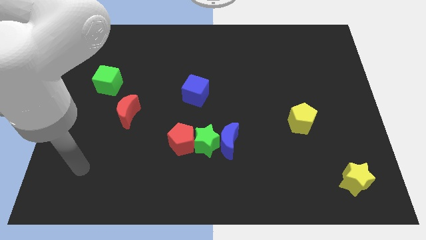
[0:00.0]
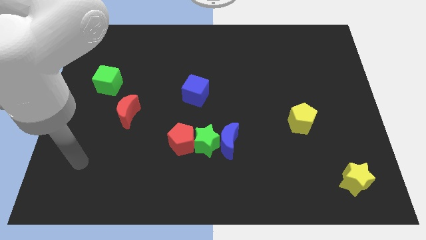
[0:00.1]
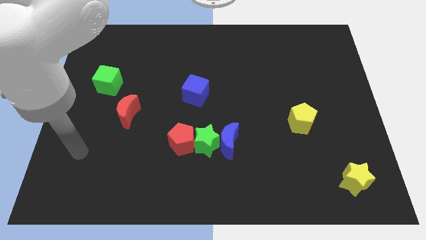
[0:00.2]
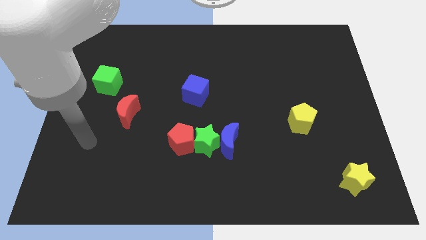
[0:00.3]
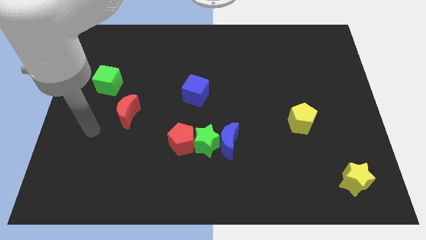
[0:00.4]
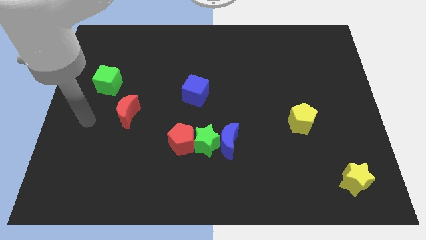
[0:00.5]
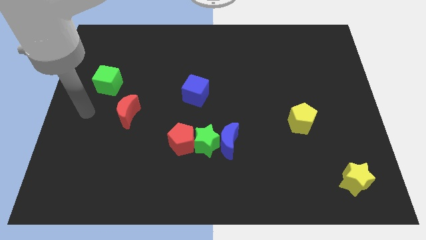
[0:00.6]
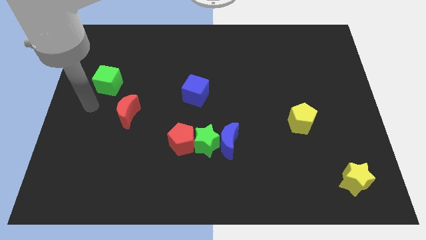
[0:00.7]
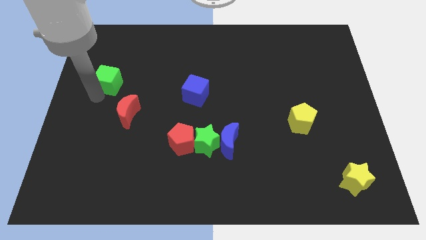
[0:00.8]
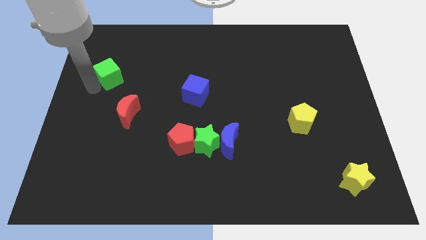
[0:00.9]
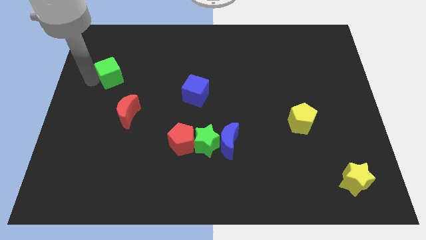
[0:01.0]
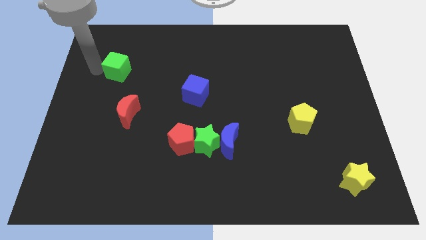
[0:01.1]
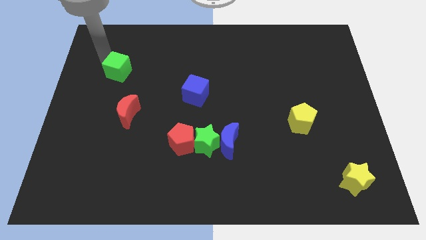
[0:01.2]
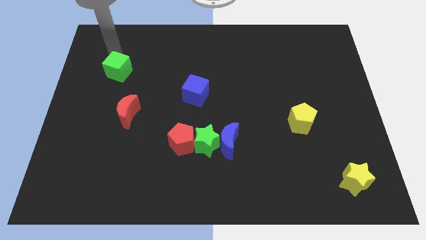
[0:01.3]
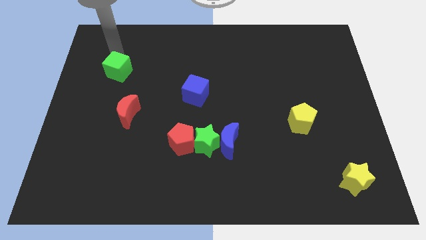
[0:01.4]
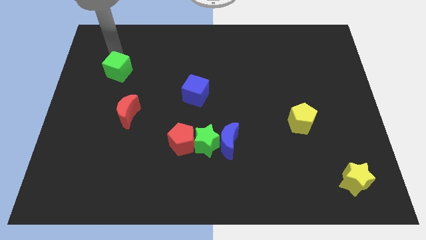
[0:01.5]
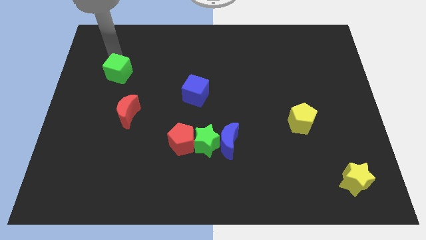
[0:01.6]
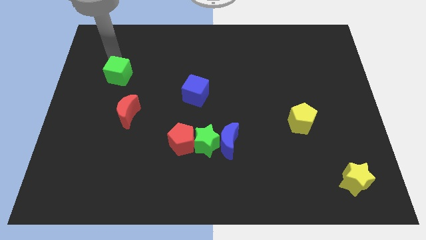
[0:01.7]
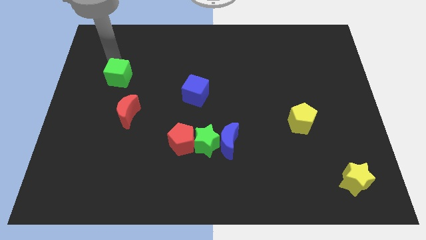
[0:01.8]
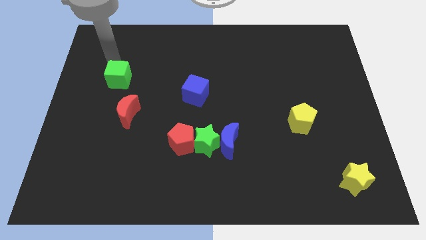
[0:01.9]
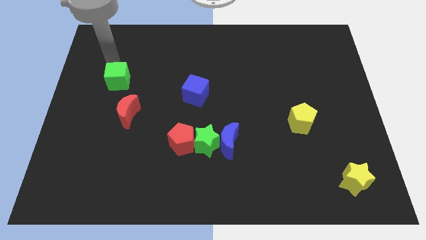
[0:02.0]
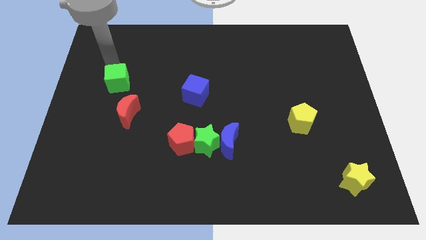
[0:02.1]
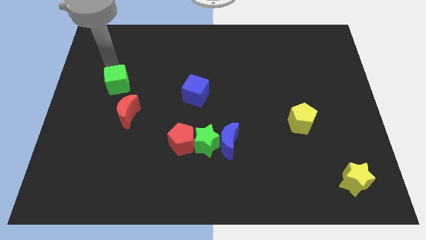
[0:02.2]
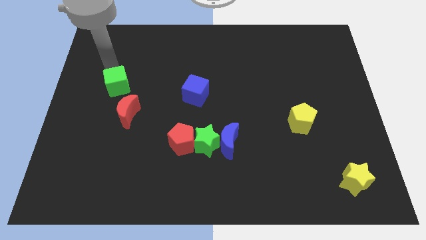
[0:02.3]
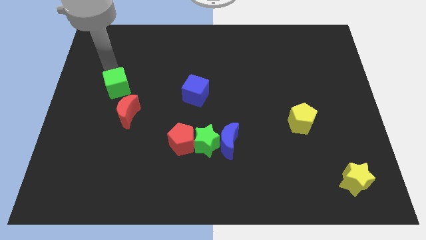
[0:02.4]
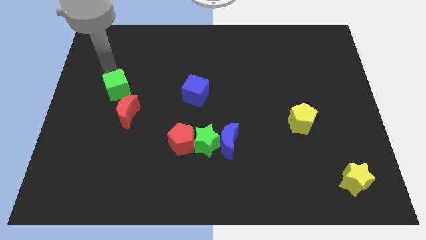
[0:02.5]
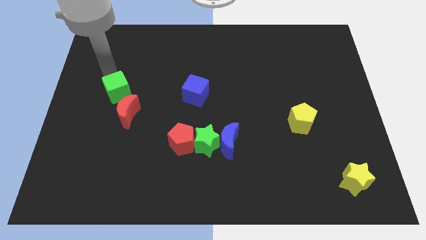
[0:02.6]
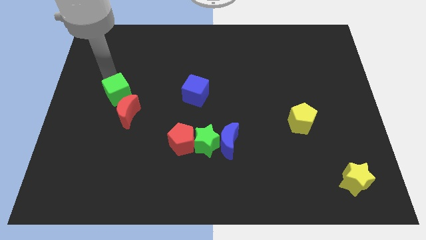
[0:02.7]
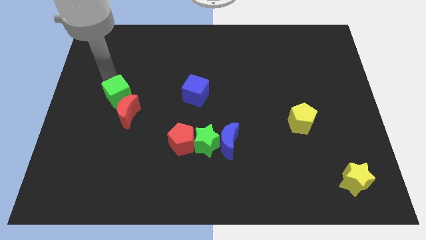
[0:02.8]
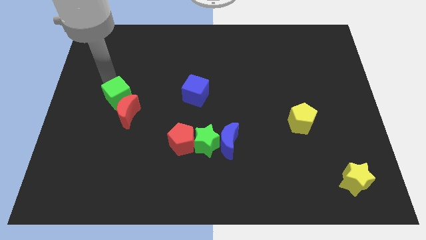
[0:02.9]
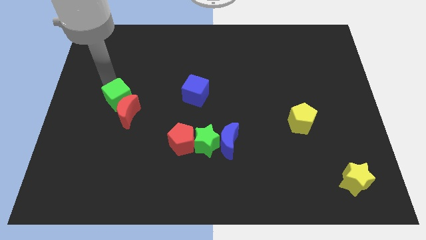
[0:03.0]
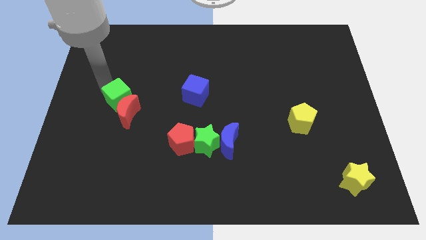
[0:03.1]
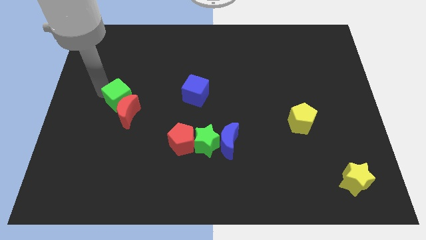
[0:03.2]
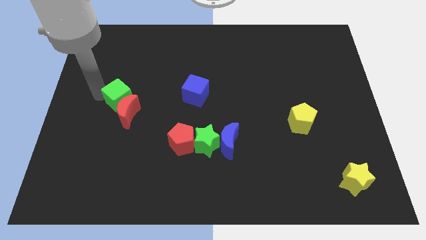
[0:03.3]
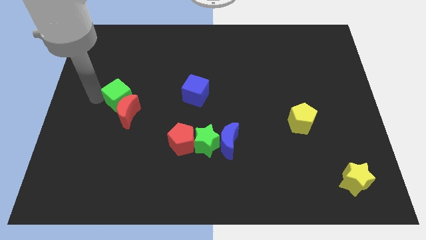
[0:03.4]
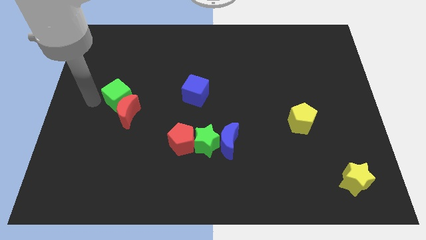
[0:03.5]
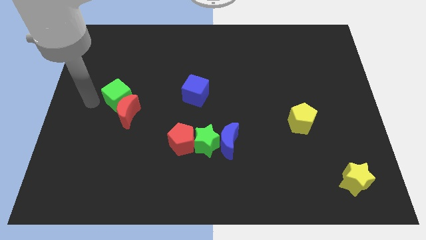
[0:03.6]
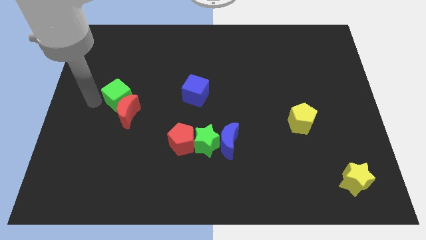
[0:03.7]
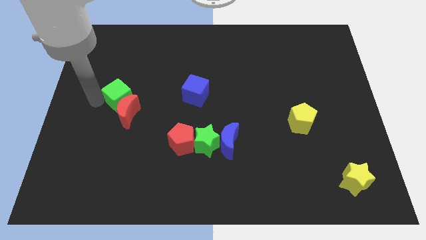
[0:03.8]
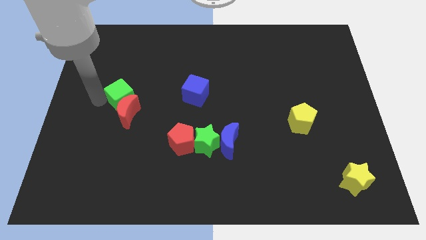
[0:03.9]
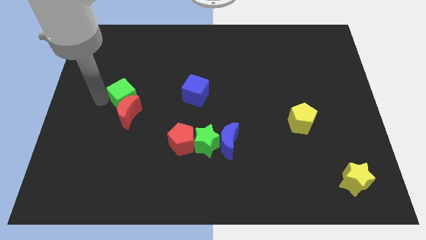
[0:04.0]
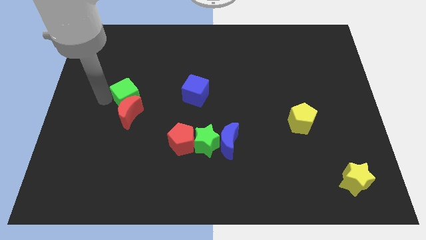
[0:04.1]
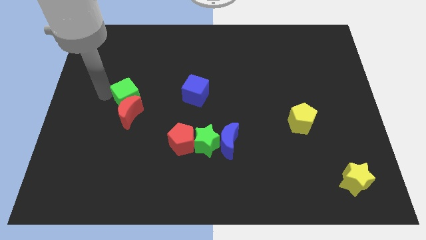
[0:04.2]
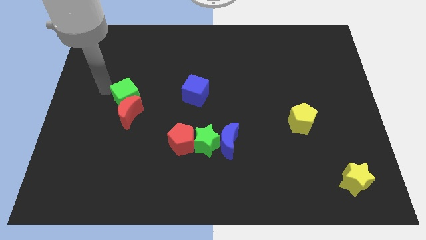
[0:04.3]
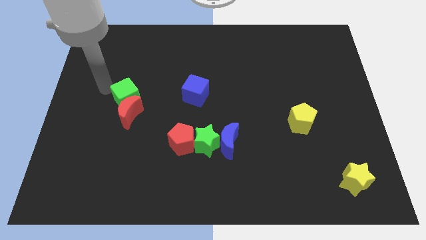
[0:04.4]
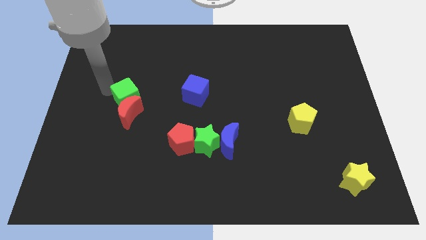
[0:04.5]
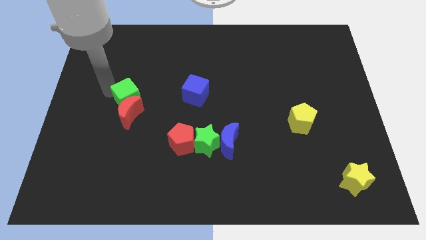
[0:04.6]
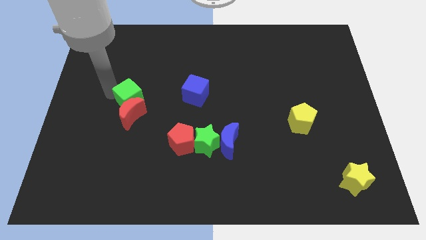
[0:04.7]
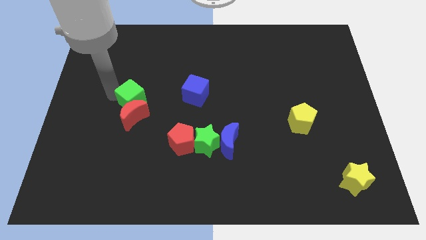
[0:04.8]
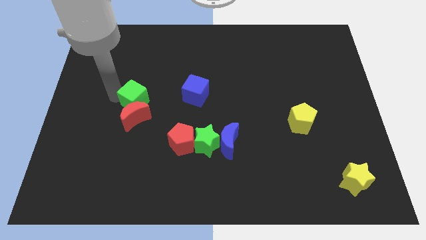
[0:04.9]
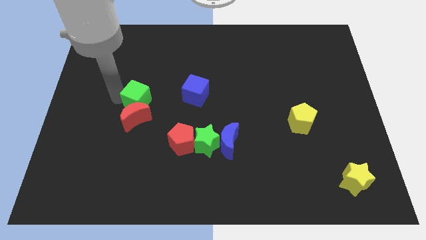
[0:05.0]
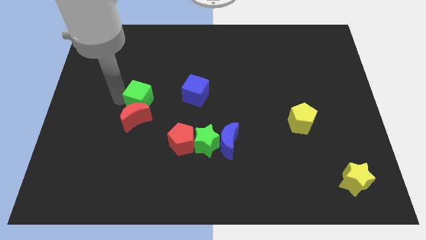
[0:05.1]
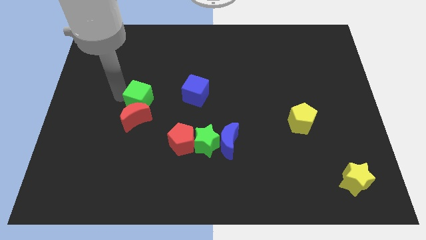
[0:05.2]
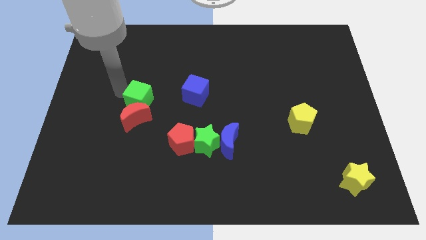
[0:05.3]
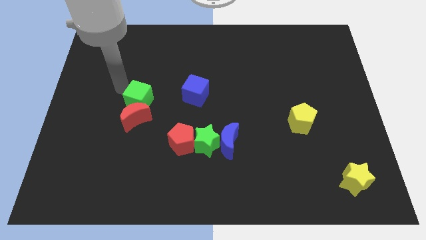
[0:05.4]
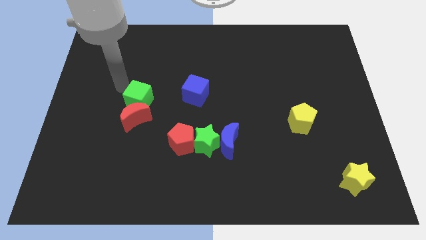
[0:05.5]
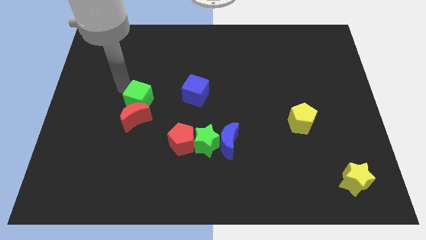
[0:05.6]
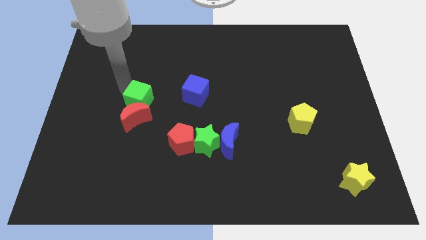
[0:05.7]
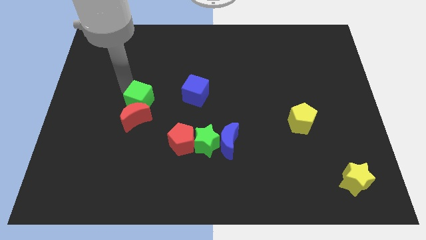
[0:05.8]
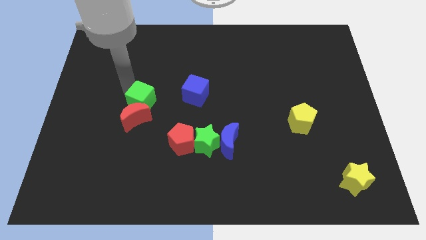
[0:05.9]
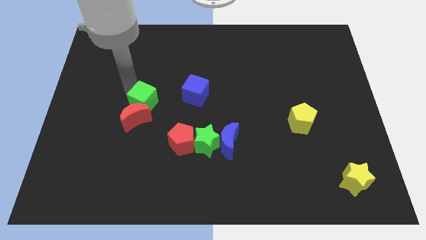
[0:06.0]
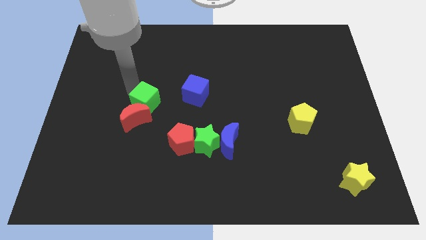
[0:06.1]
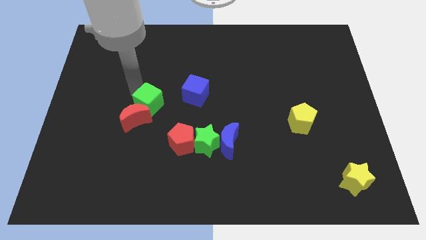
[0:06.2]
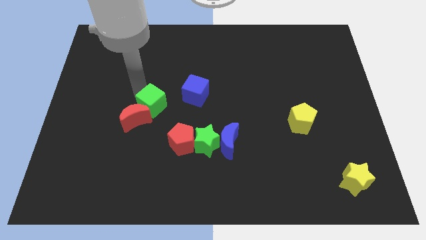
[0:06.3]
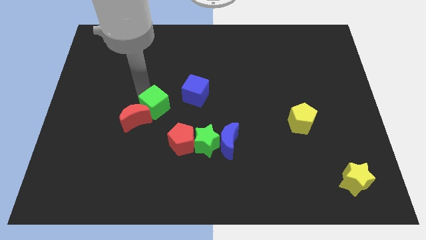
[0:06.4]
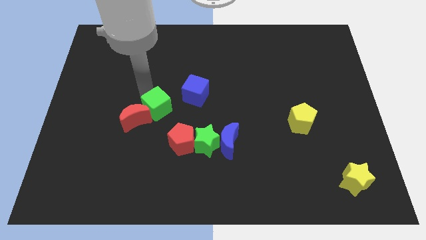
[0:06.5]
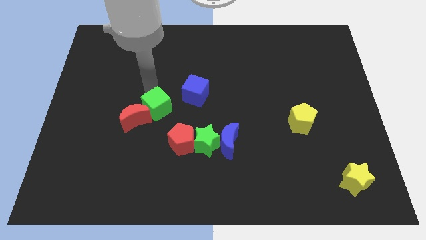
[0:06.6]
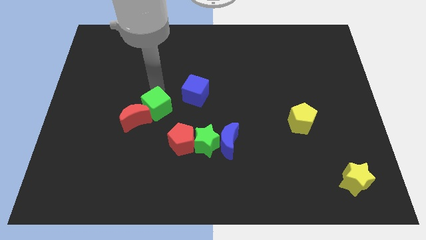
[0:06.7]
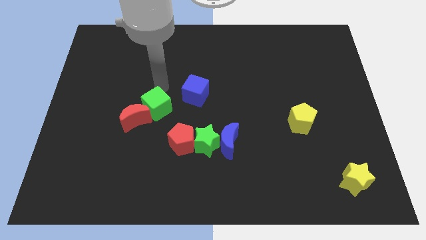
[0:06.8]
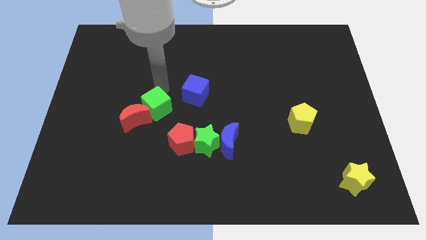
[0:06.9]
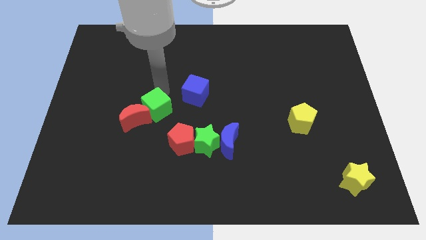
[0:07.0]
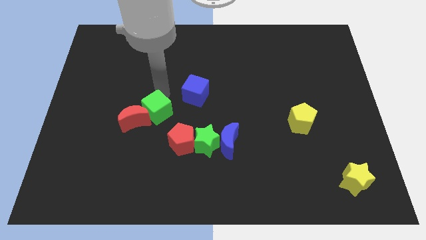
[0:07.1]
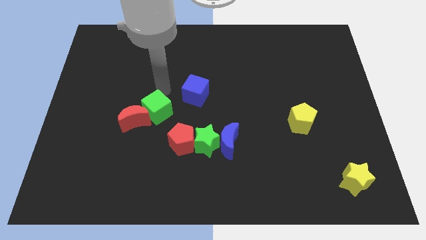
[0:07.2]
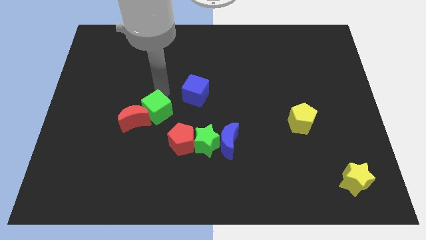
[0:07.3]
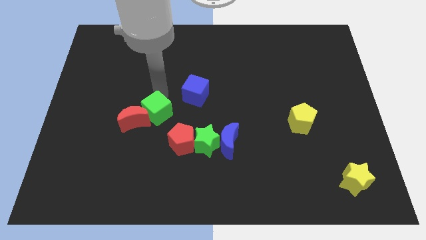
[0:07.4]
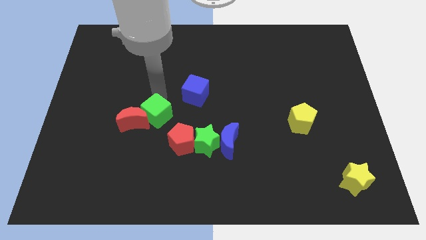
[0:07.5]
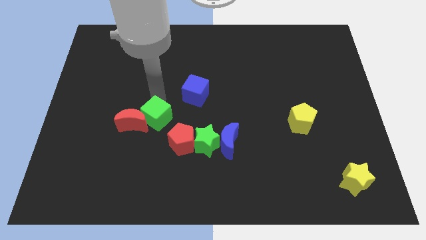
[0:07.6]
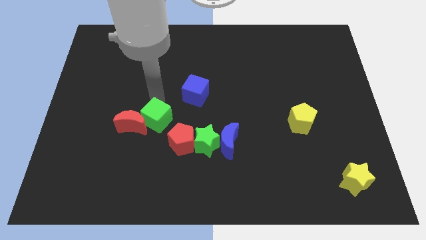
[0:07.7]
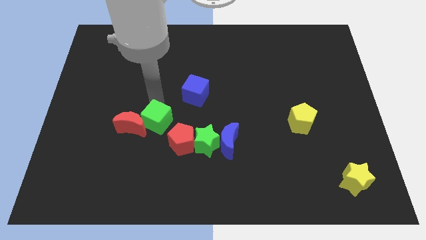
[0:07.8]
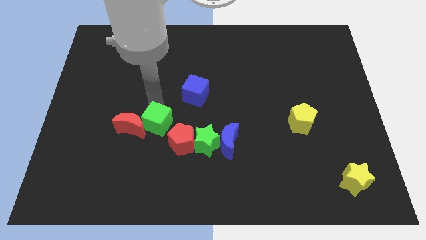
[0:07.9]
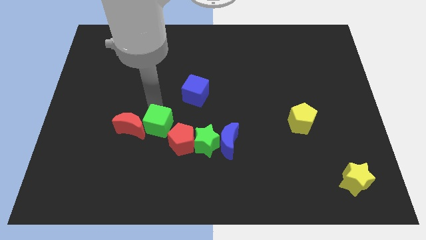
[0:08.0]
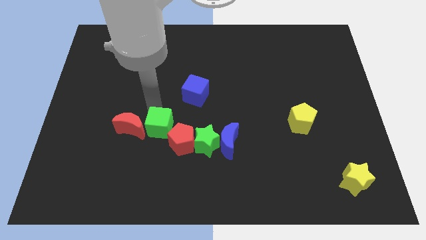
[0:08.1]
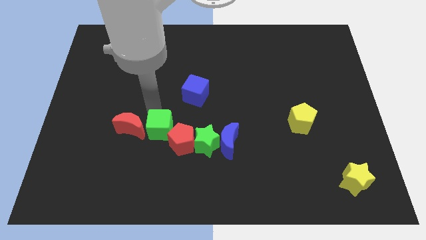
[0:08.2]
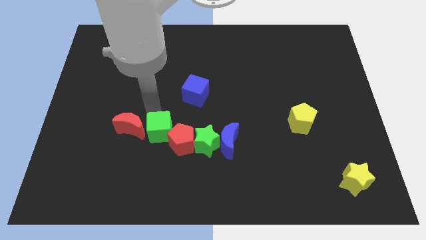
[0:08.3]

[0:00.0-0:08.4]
slide the green cube down and right
